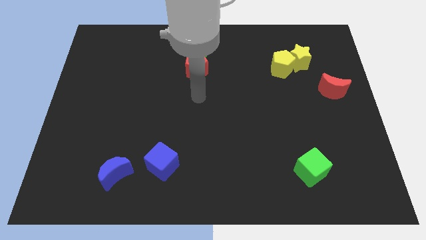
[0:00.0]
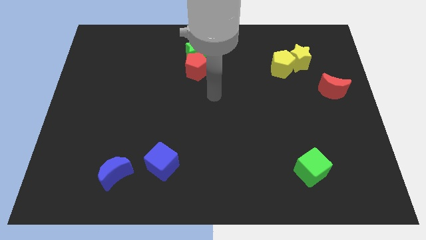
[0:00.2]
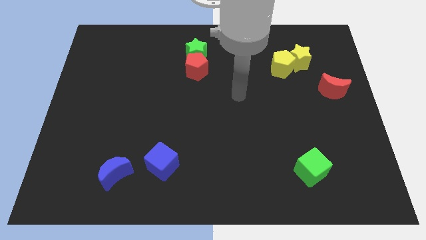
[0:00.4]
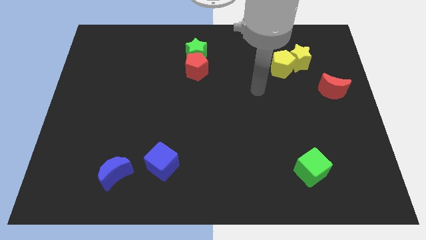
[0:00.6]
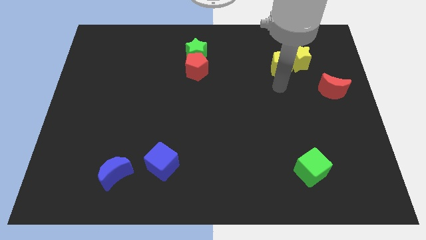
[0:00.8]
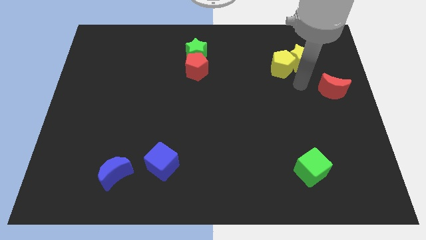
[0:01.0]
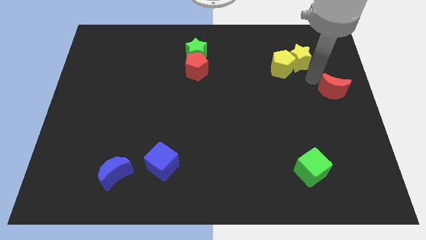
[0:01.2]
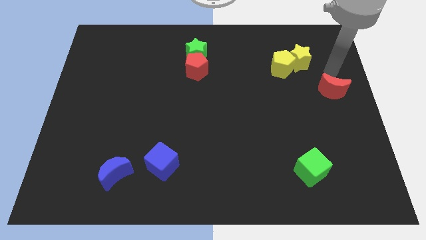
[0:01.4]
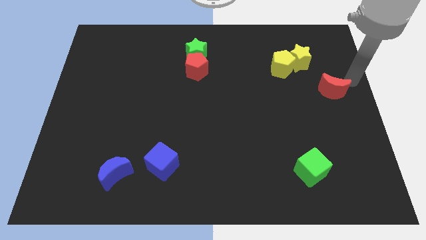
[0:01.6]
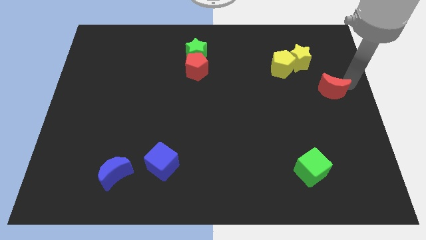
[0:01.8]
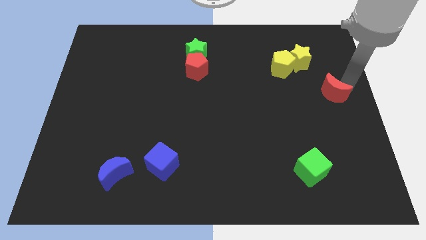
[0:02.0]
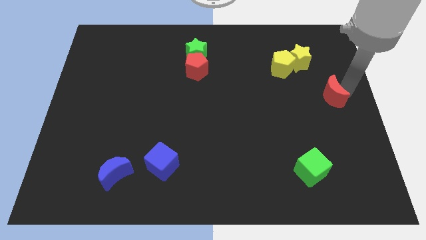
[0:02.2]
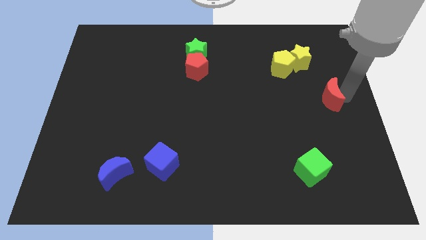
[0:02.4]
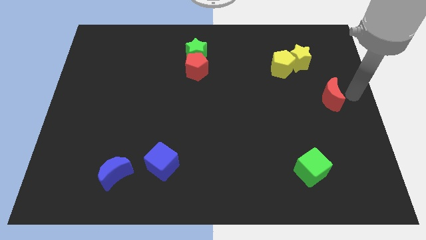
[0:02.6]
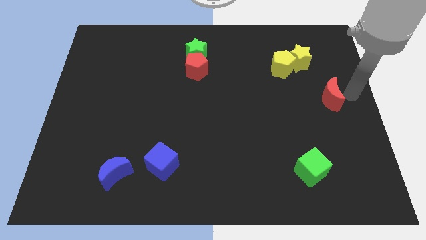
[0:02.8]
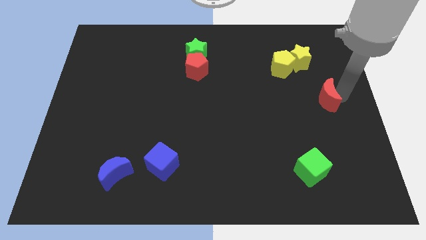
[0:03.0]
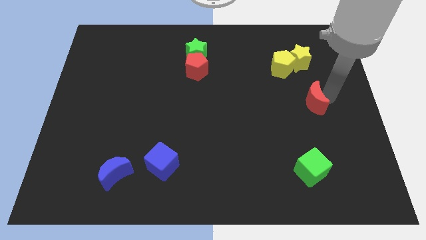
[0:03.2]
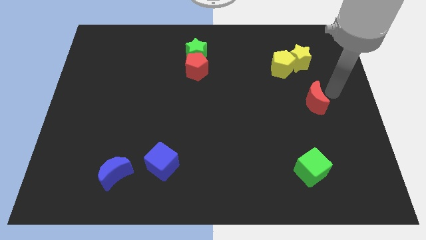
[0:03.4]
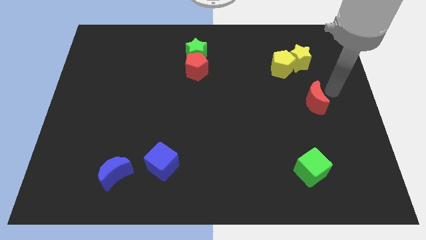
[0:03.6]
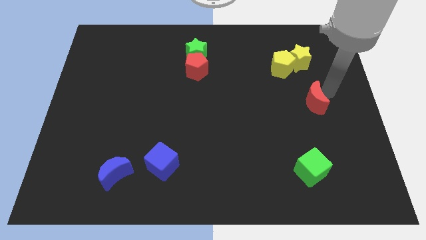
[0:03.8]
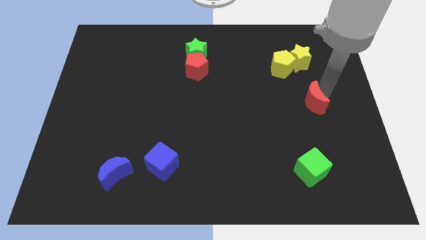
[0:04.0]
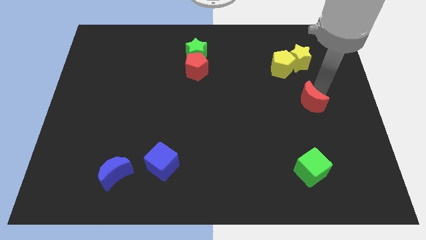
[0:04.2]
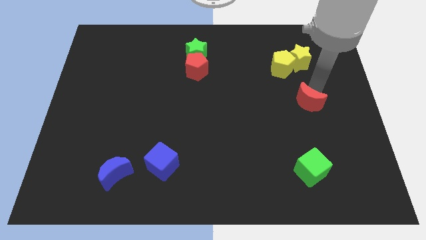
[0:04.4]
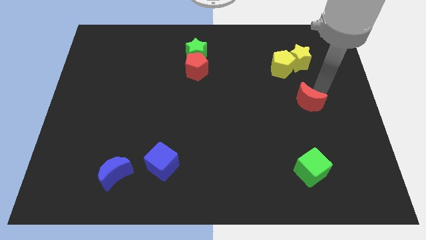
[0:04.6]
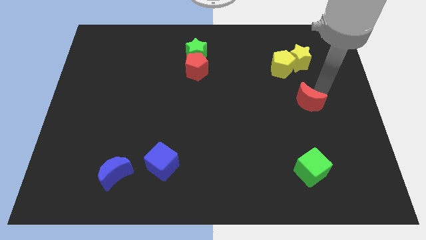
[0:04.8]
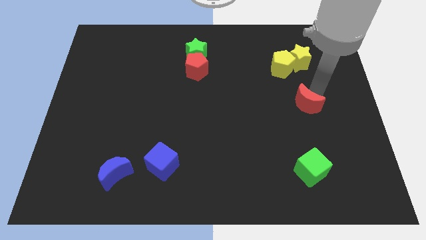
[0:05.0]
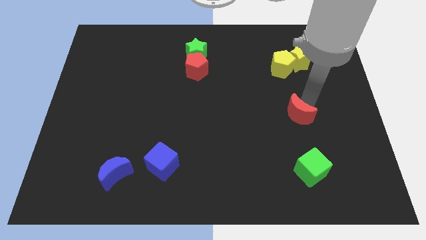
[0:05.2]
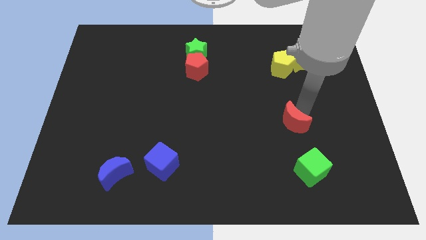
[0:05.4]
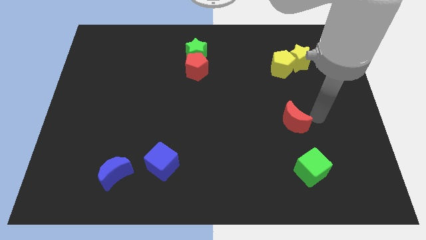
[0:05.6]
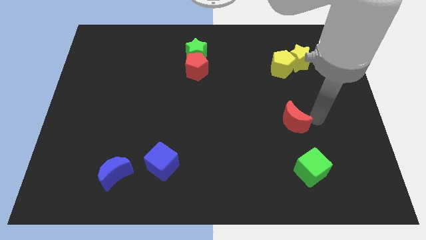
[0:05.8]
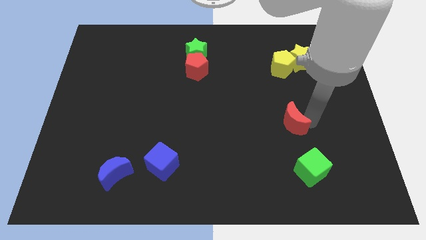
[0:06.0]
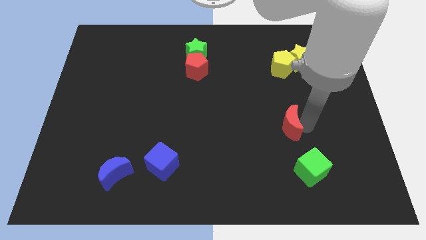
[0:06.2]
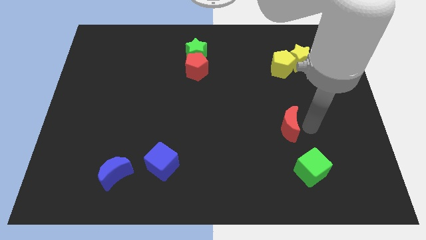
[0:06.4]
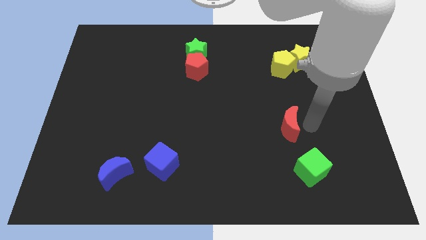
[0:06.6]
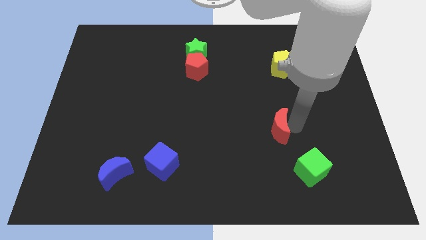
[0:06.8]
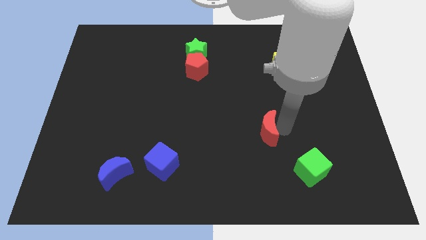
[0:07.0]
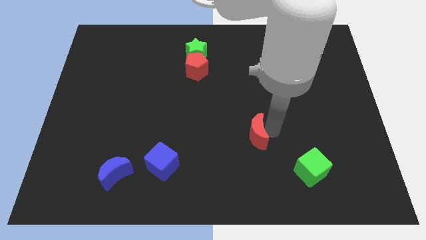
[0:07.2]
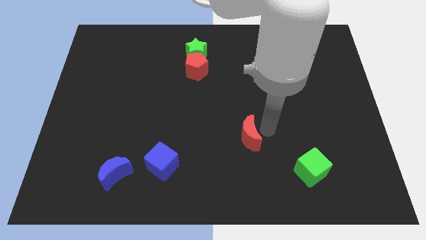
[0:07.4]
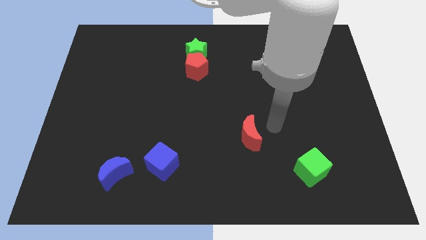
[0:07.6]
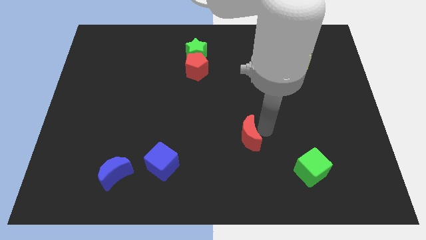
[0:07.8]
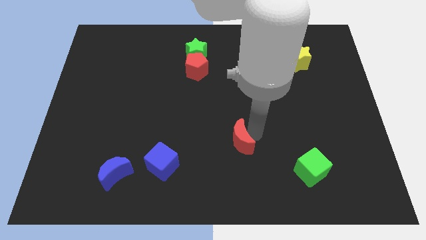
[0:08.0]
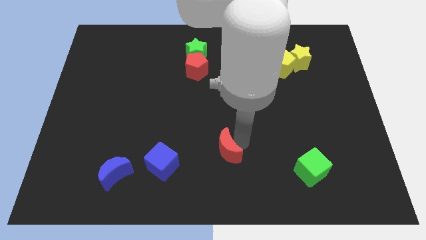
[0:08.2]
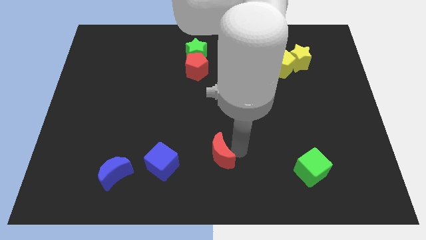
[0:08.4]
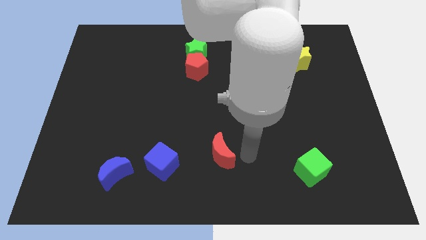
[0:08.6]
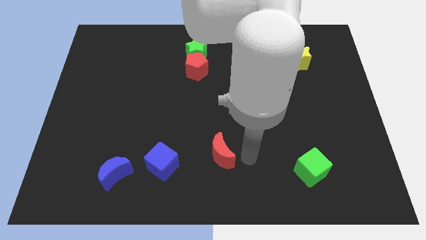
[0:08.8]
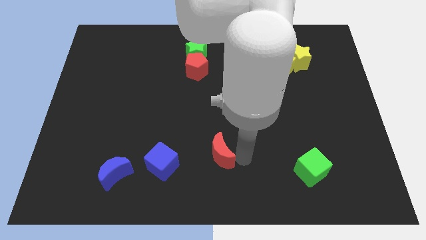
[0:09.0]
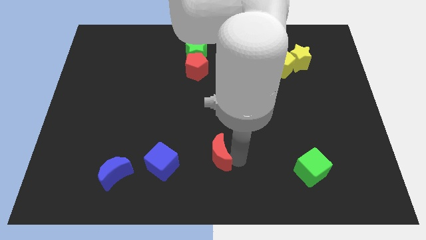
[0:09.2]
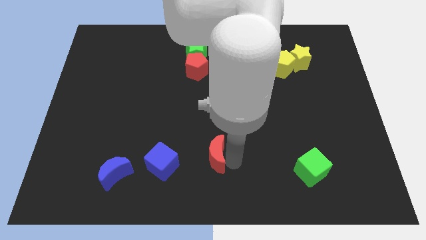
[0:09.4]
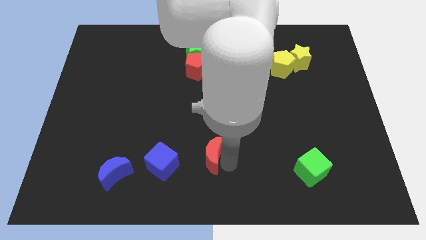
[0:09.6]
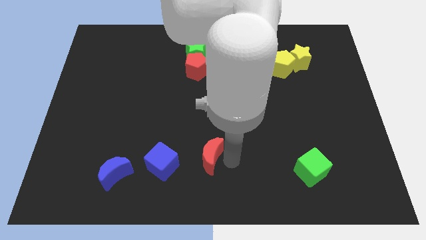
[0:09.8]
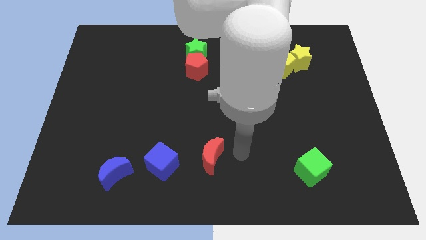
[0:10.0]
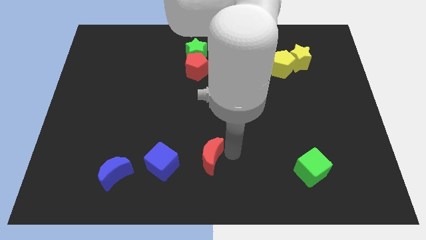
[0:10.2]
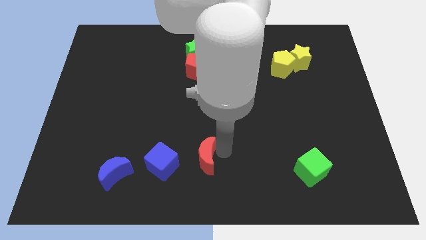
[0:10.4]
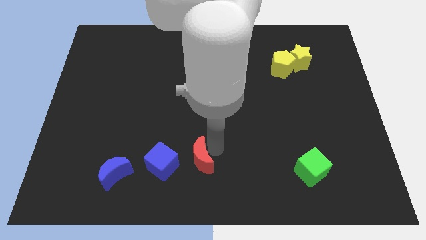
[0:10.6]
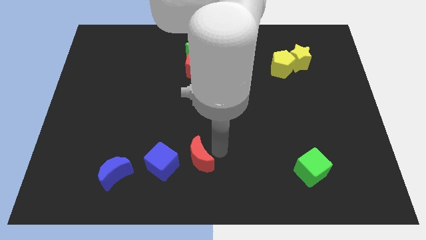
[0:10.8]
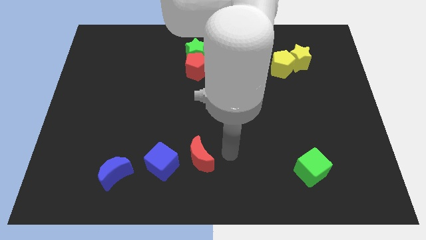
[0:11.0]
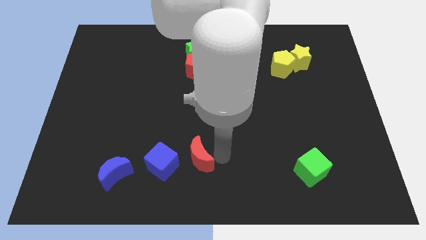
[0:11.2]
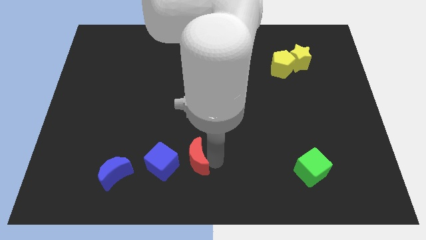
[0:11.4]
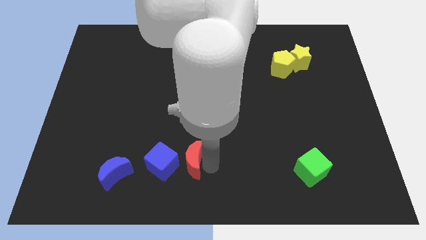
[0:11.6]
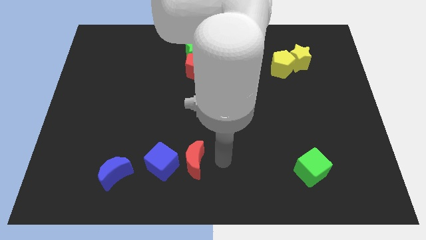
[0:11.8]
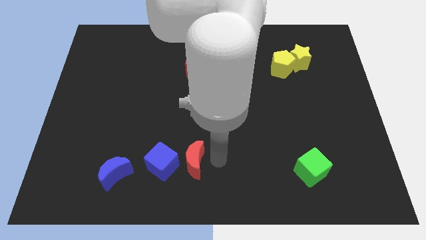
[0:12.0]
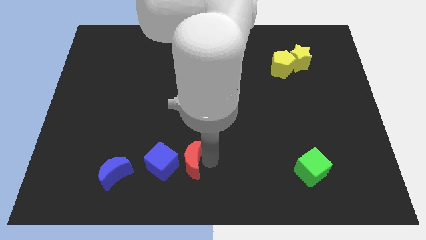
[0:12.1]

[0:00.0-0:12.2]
put the red moon to the blue cube

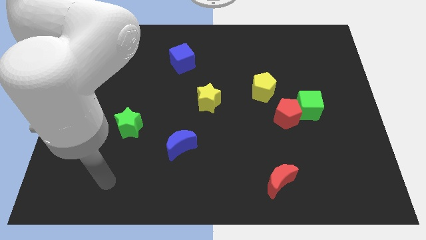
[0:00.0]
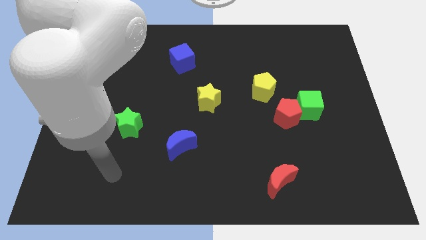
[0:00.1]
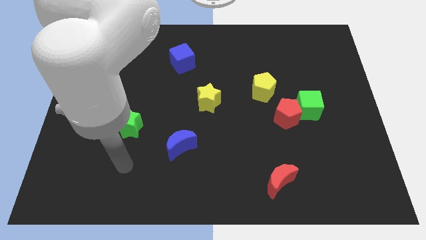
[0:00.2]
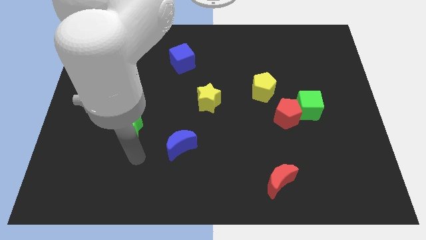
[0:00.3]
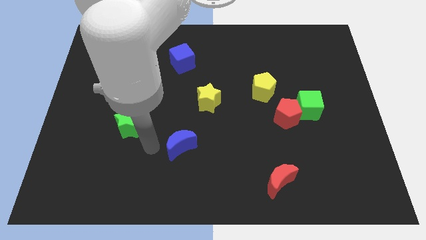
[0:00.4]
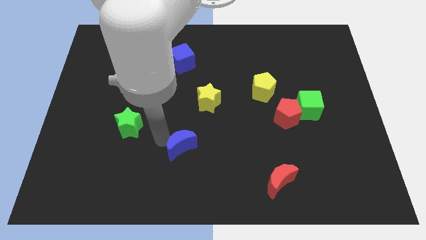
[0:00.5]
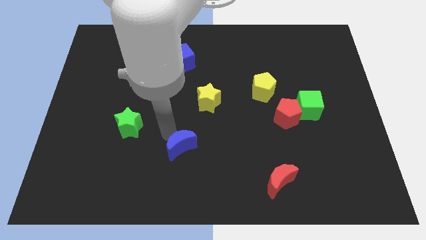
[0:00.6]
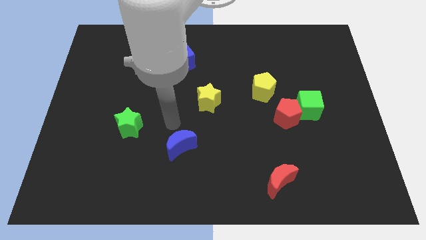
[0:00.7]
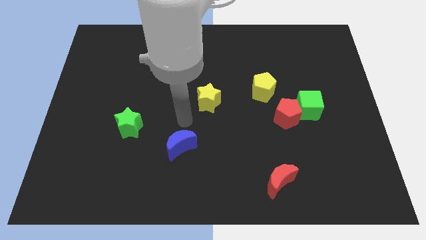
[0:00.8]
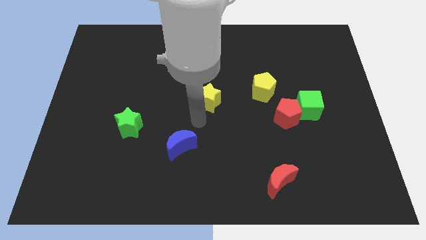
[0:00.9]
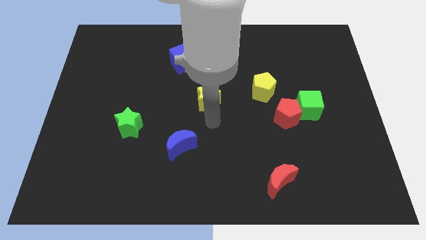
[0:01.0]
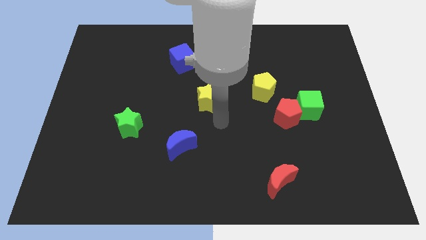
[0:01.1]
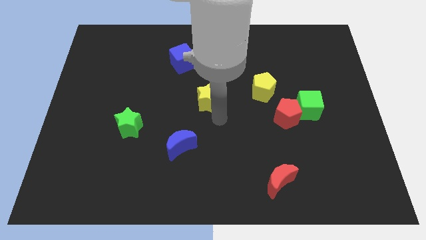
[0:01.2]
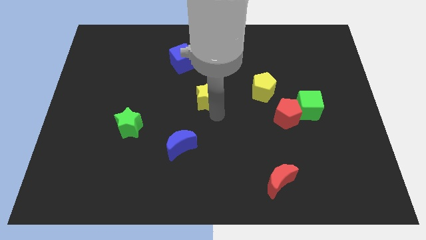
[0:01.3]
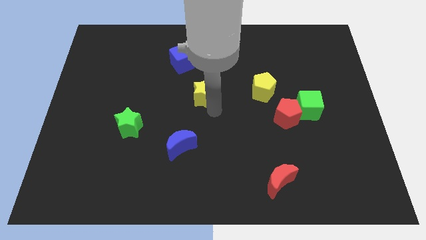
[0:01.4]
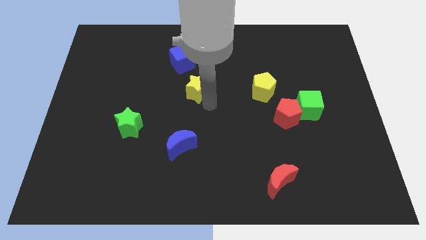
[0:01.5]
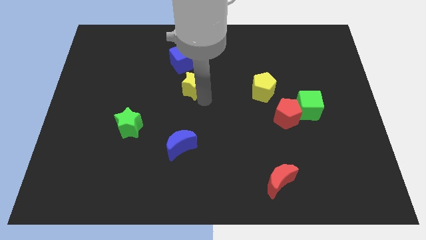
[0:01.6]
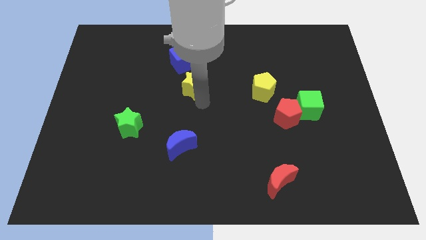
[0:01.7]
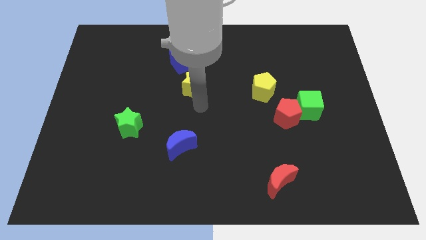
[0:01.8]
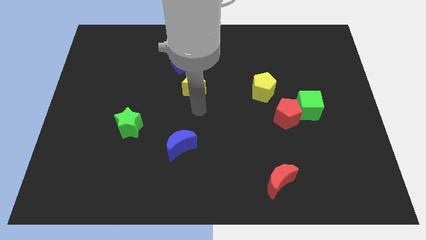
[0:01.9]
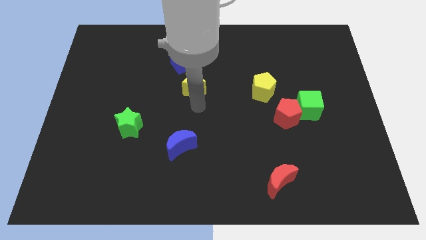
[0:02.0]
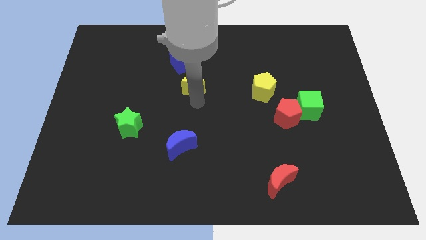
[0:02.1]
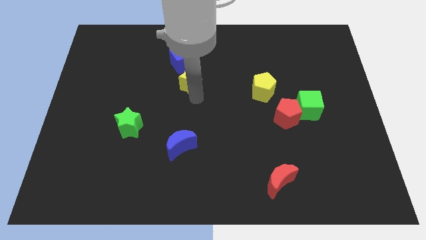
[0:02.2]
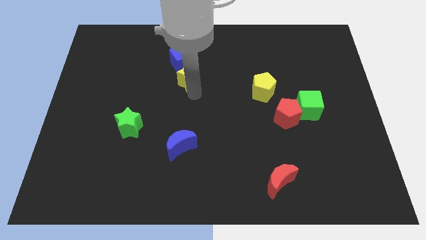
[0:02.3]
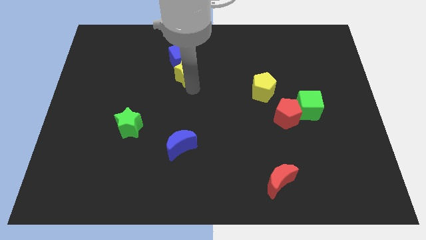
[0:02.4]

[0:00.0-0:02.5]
put the yellow star next to the blue cube
